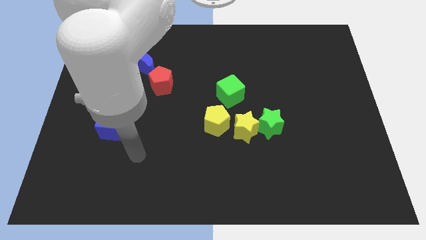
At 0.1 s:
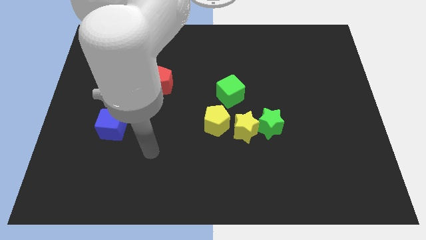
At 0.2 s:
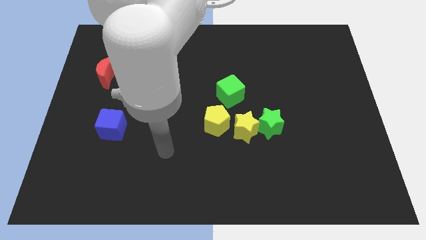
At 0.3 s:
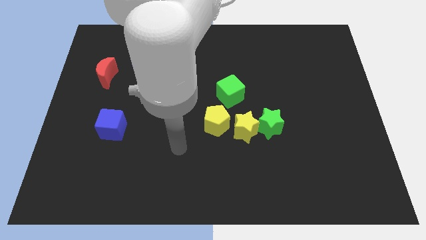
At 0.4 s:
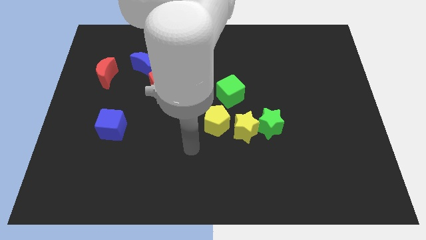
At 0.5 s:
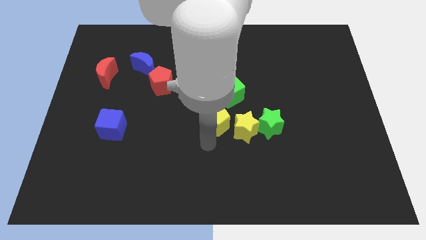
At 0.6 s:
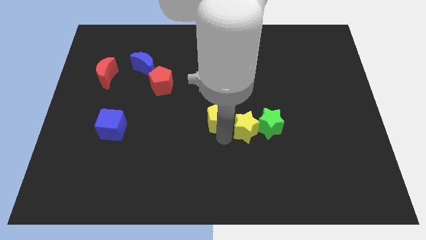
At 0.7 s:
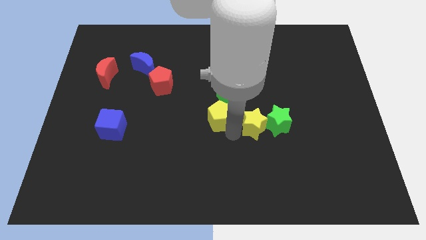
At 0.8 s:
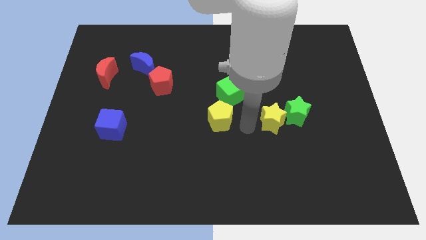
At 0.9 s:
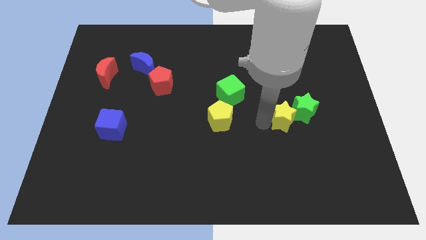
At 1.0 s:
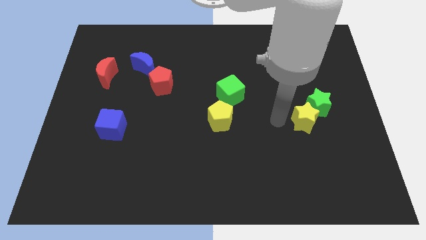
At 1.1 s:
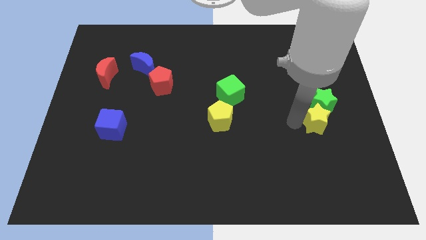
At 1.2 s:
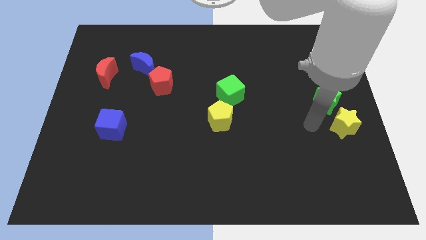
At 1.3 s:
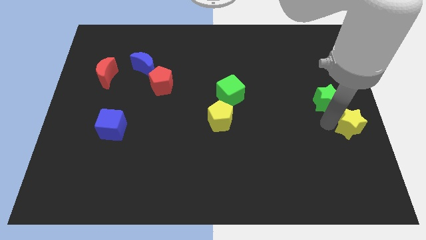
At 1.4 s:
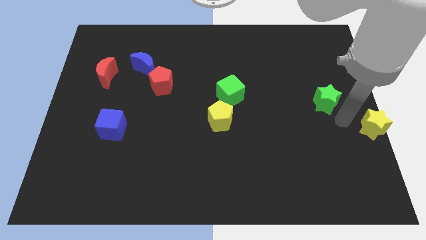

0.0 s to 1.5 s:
move the green star away from the yellow star

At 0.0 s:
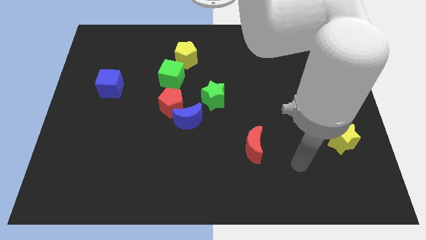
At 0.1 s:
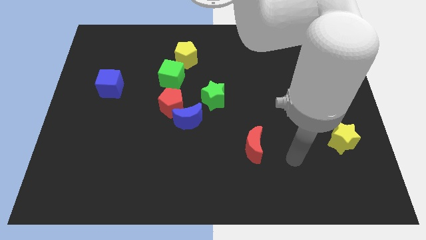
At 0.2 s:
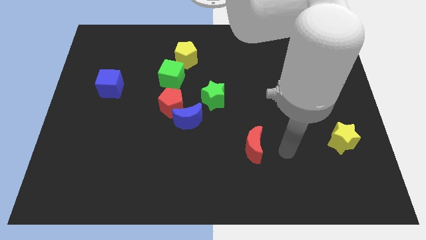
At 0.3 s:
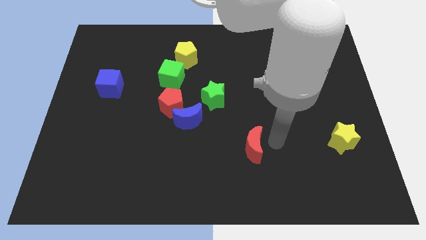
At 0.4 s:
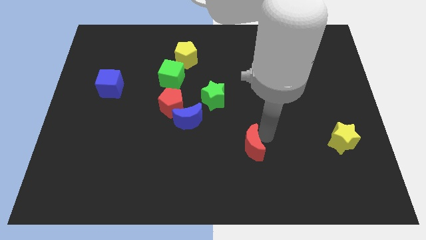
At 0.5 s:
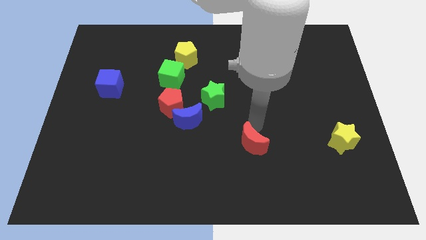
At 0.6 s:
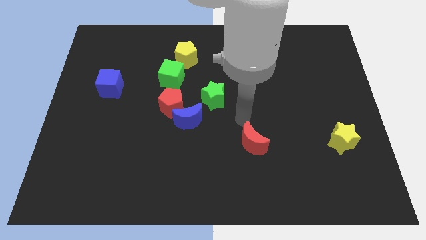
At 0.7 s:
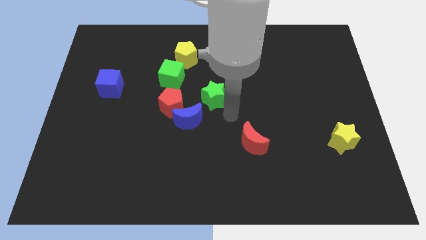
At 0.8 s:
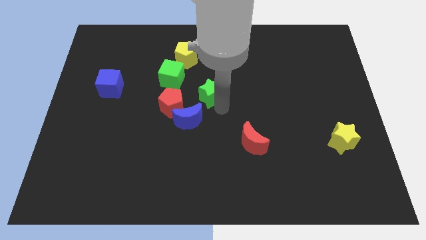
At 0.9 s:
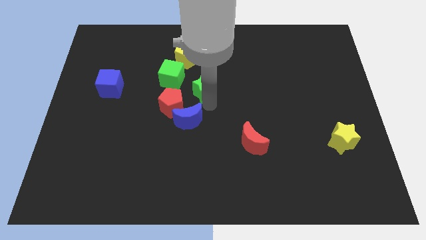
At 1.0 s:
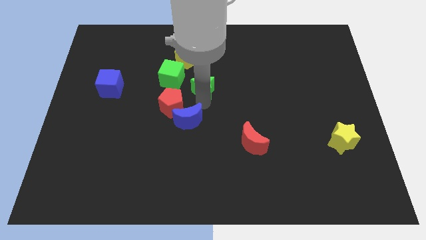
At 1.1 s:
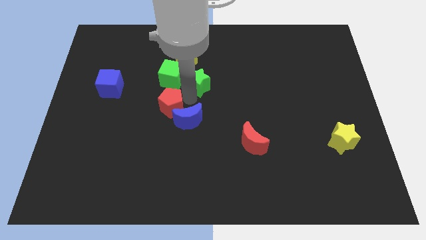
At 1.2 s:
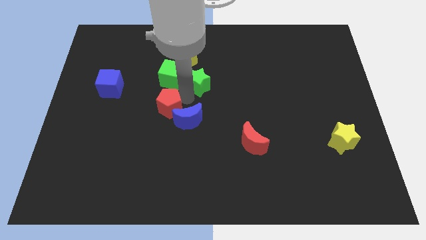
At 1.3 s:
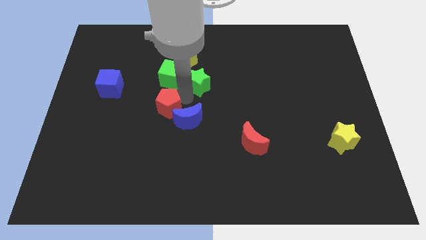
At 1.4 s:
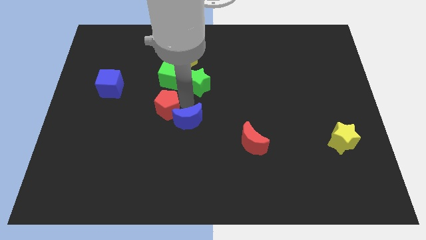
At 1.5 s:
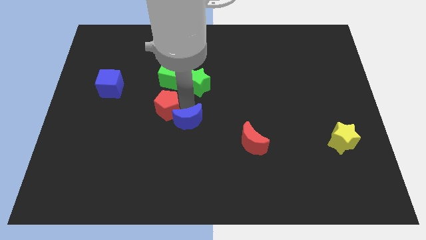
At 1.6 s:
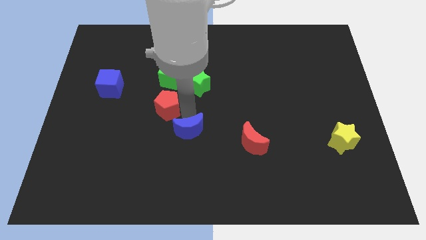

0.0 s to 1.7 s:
move the blue moon away from the red pentagon and green star

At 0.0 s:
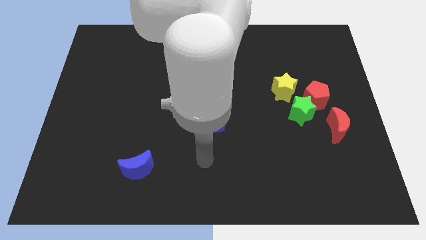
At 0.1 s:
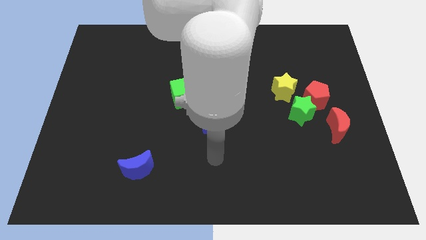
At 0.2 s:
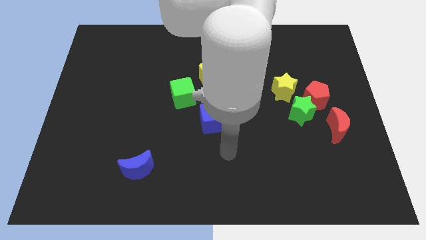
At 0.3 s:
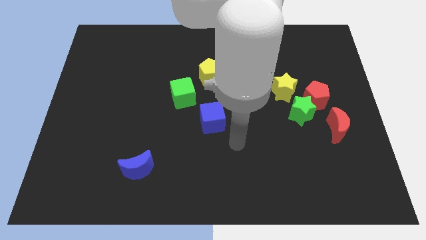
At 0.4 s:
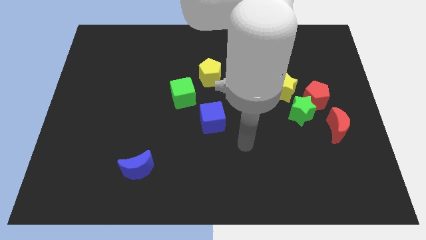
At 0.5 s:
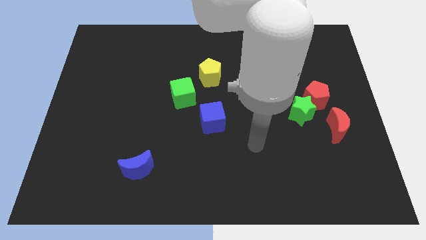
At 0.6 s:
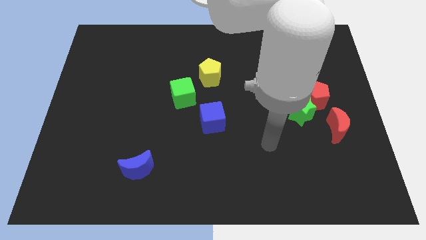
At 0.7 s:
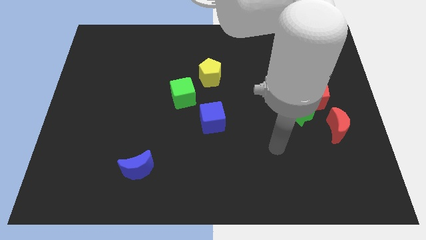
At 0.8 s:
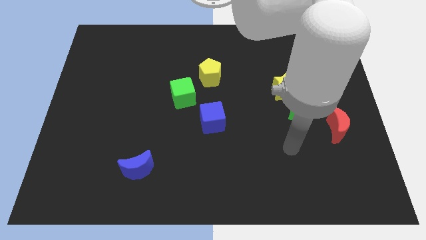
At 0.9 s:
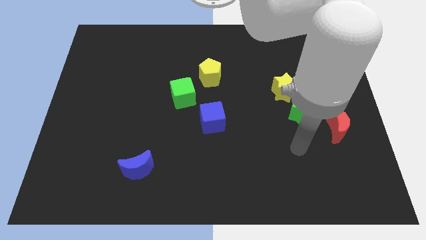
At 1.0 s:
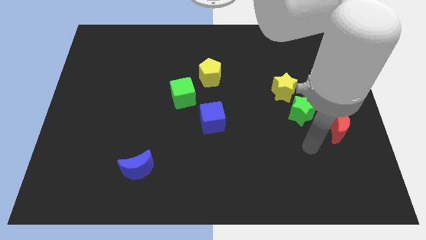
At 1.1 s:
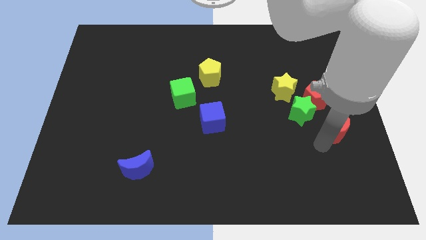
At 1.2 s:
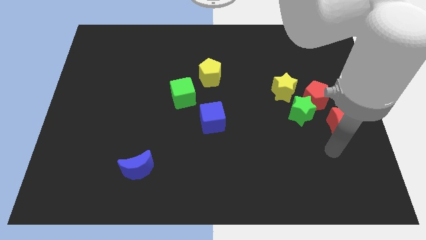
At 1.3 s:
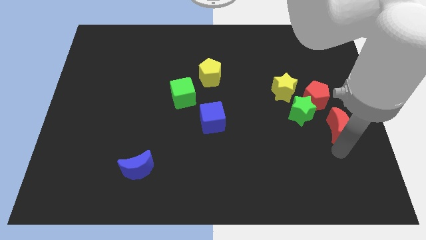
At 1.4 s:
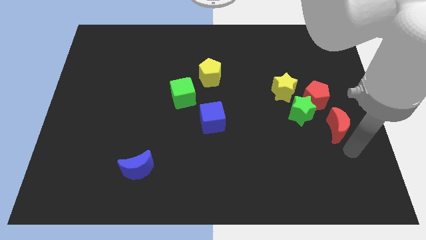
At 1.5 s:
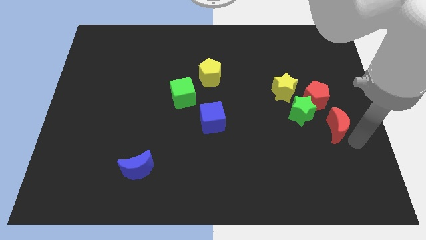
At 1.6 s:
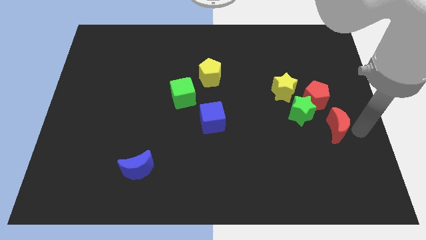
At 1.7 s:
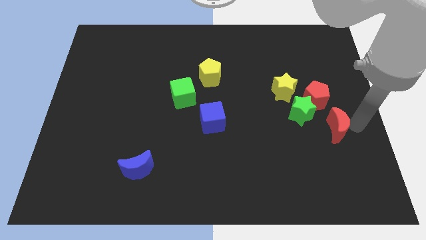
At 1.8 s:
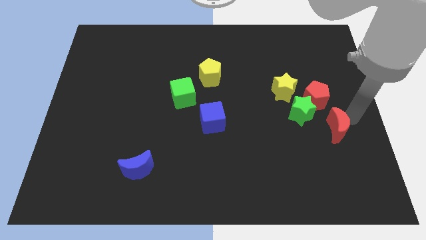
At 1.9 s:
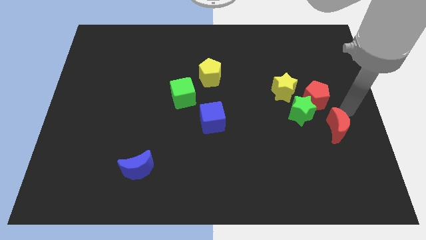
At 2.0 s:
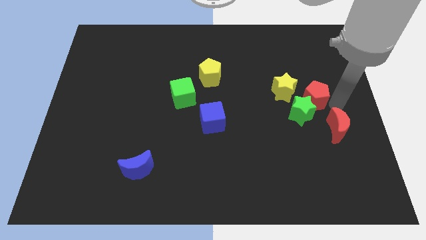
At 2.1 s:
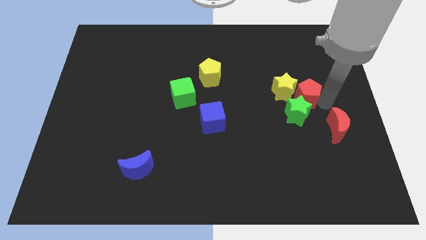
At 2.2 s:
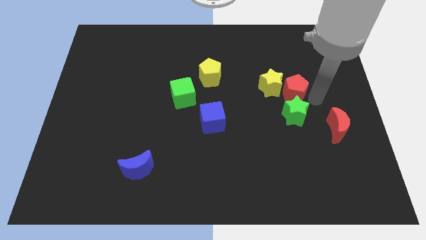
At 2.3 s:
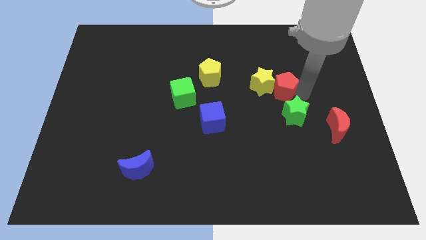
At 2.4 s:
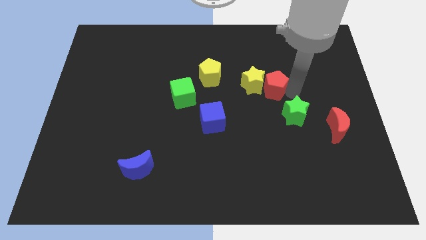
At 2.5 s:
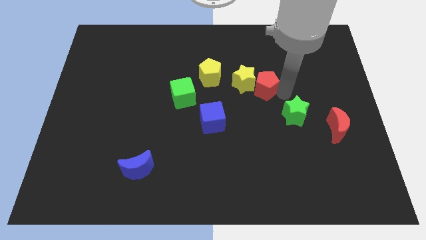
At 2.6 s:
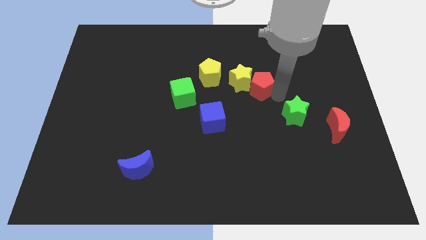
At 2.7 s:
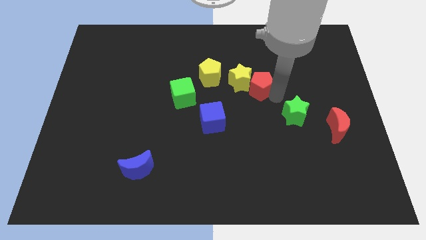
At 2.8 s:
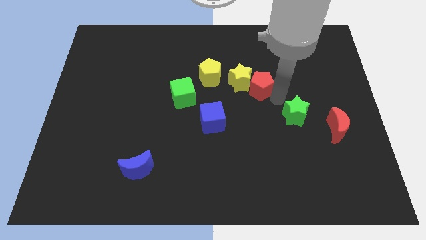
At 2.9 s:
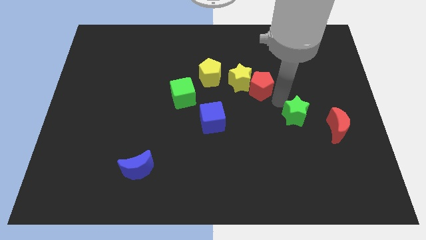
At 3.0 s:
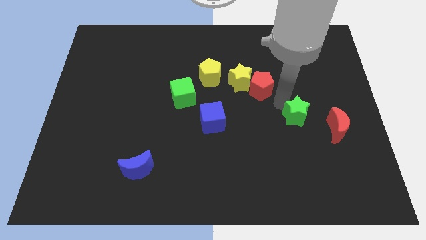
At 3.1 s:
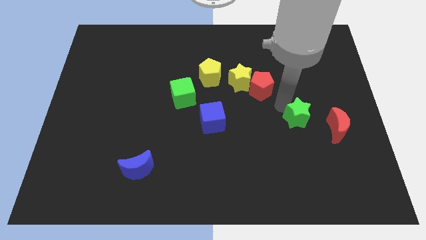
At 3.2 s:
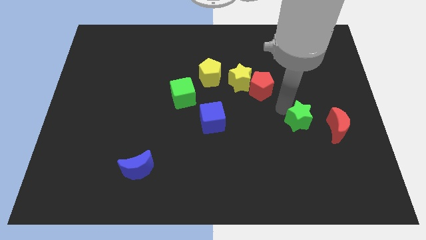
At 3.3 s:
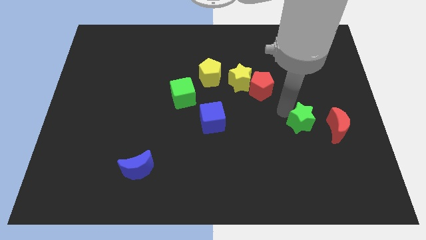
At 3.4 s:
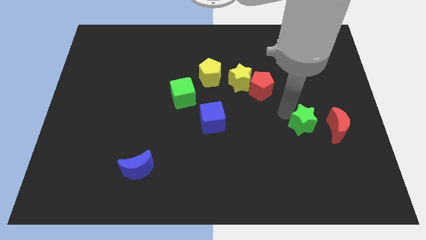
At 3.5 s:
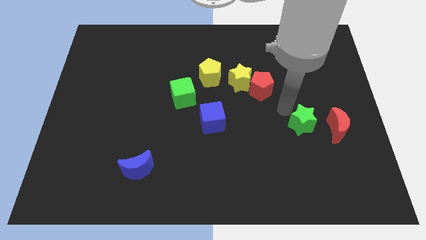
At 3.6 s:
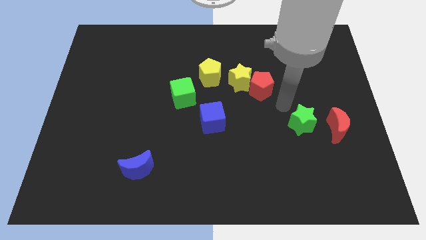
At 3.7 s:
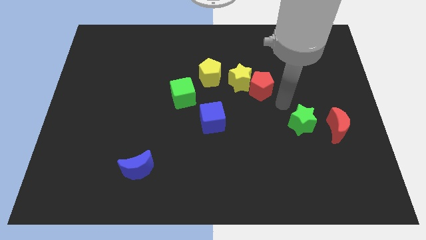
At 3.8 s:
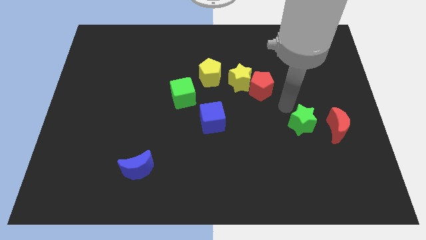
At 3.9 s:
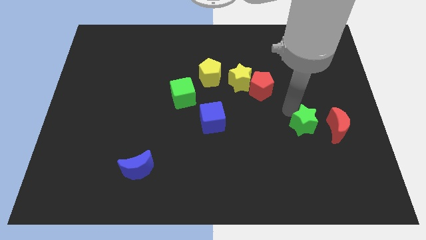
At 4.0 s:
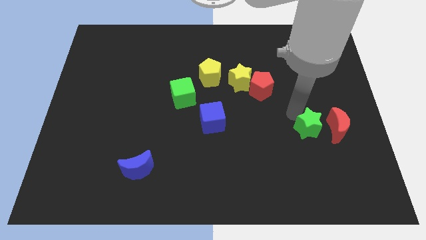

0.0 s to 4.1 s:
pull the green star apart from the red pentagon, yellow star, and red moon

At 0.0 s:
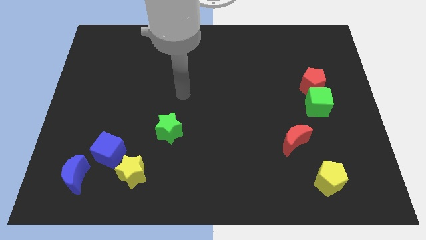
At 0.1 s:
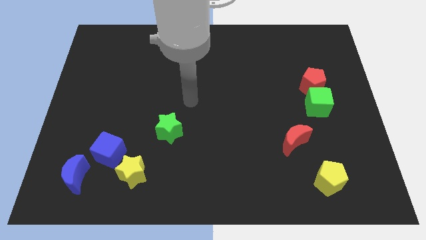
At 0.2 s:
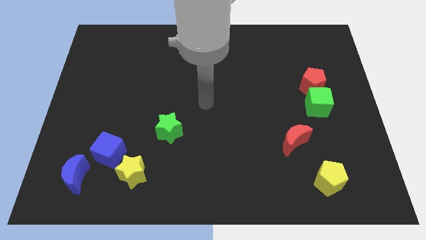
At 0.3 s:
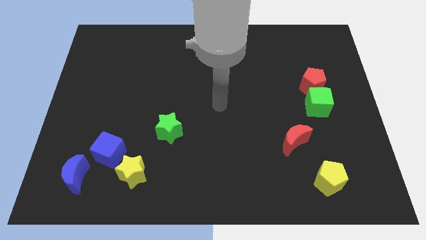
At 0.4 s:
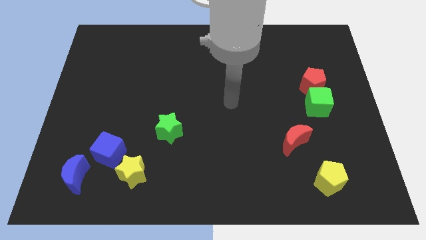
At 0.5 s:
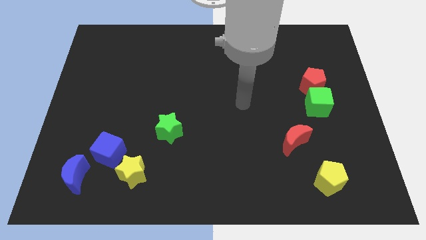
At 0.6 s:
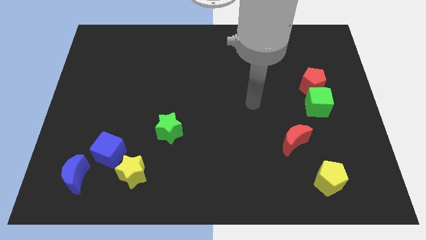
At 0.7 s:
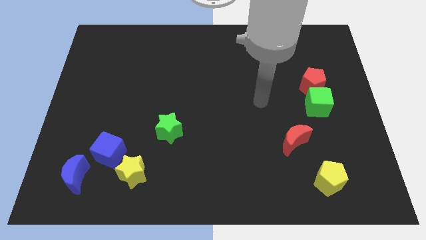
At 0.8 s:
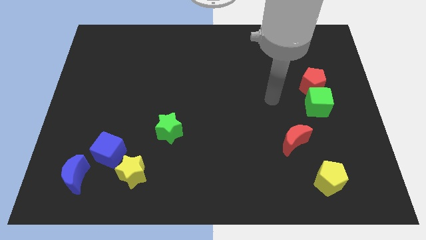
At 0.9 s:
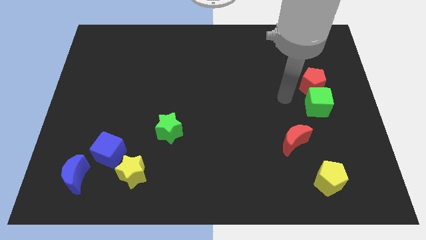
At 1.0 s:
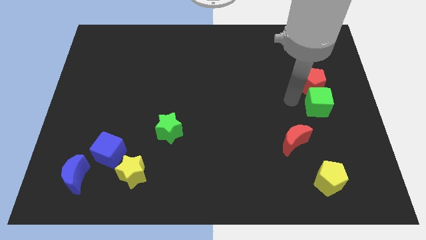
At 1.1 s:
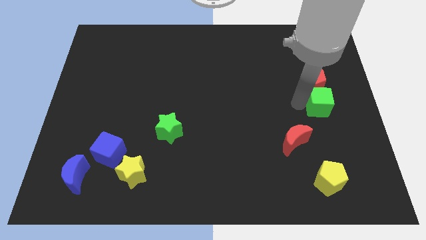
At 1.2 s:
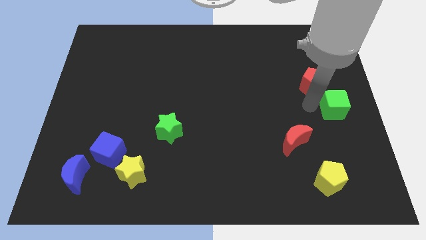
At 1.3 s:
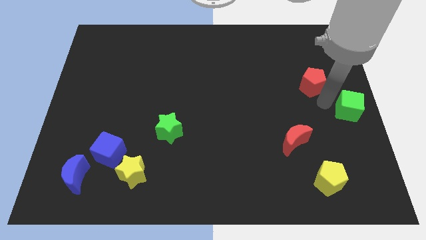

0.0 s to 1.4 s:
separate the red pentagon from the green cube

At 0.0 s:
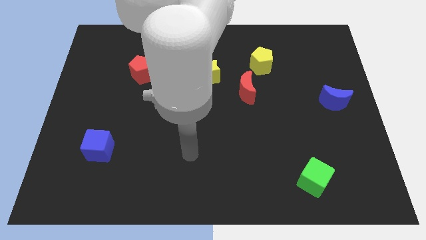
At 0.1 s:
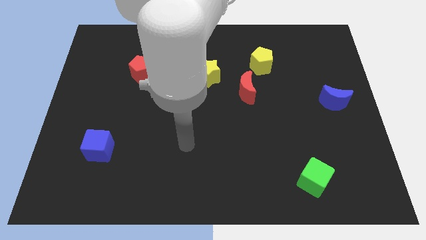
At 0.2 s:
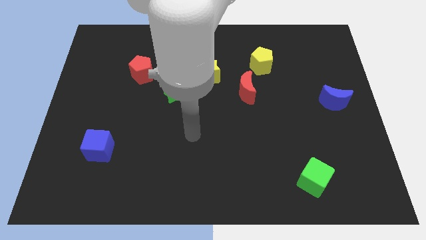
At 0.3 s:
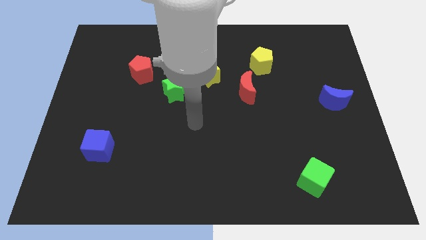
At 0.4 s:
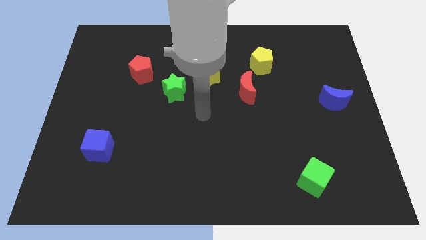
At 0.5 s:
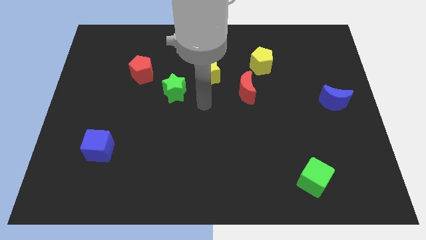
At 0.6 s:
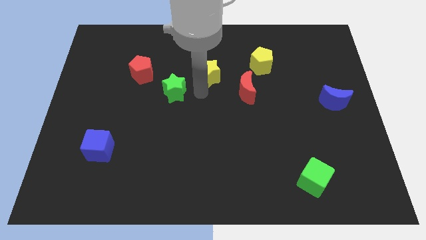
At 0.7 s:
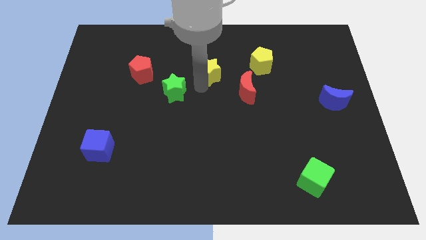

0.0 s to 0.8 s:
pull the green star apart from the yellow star
